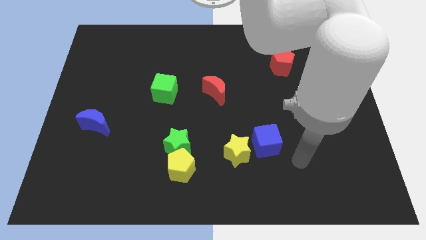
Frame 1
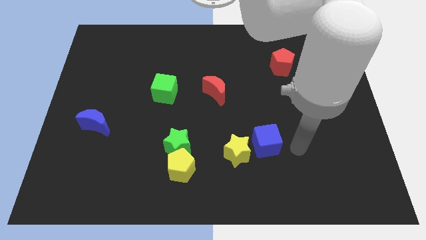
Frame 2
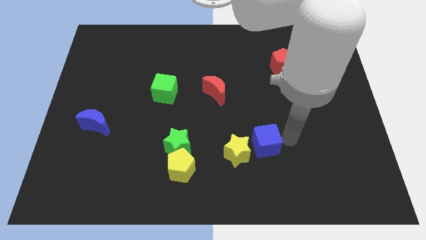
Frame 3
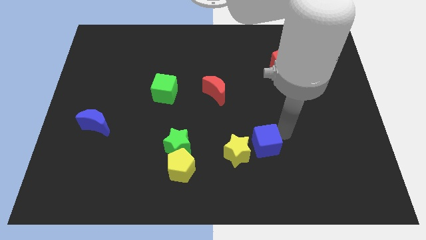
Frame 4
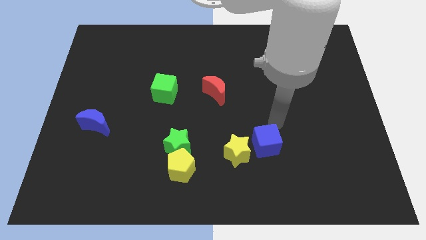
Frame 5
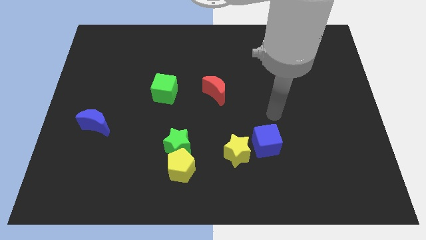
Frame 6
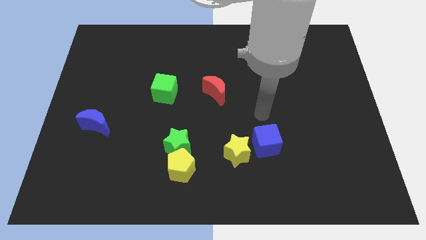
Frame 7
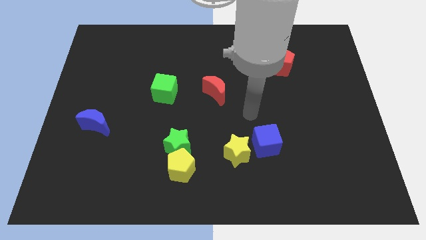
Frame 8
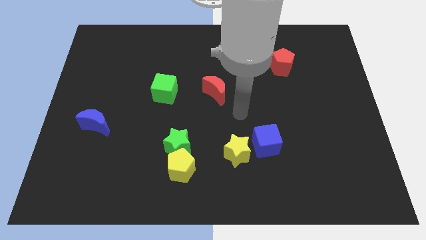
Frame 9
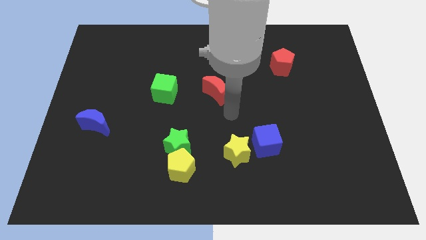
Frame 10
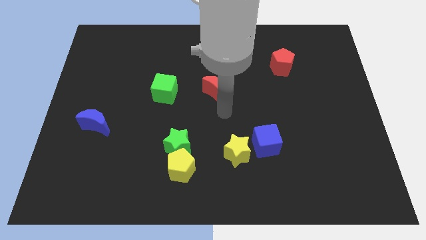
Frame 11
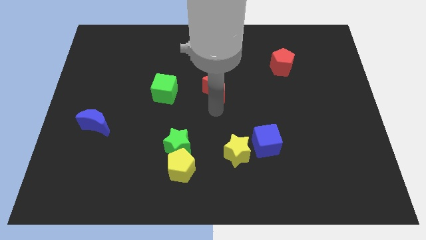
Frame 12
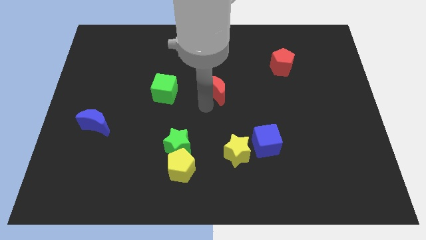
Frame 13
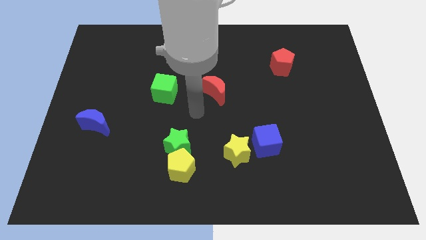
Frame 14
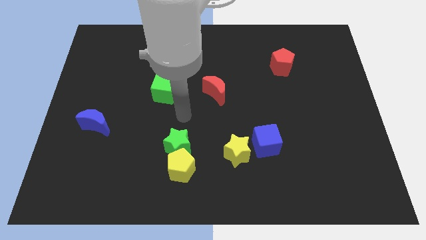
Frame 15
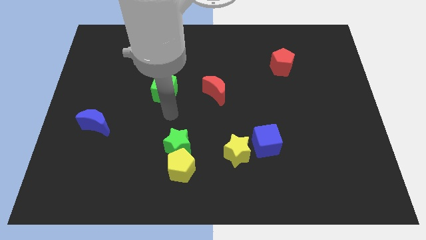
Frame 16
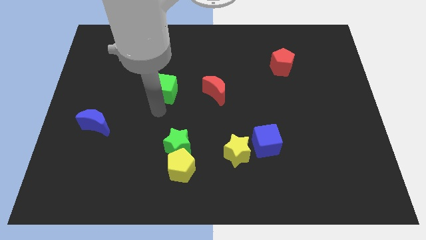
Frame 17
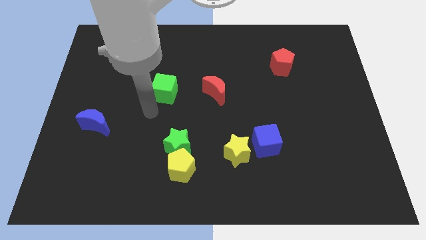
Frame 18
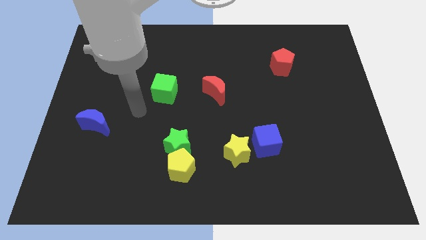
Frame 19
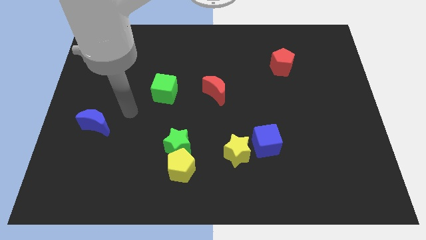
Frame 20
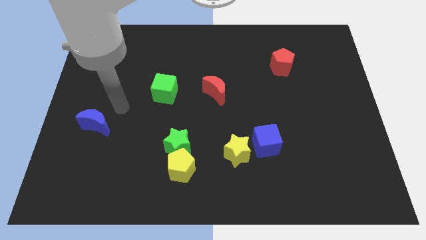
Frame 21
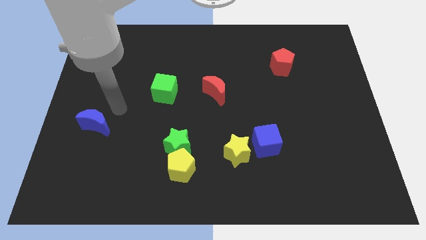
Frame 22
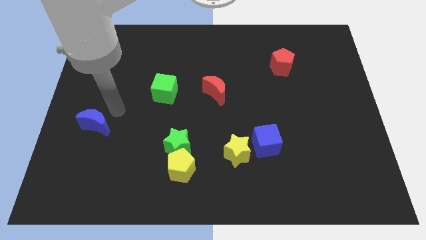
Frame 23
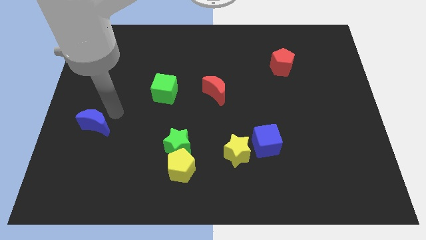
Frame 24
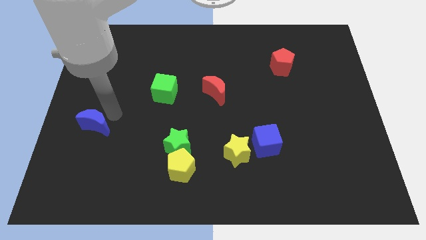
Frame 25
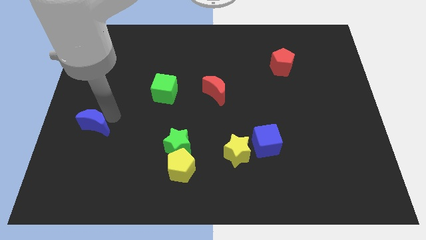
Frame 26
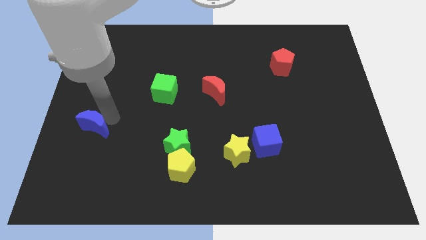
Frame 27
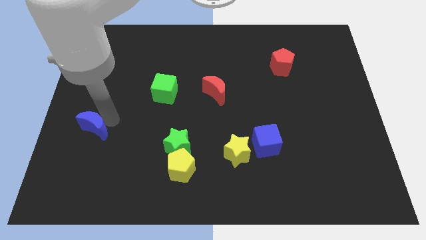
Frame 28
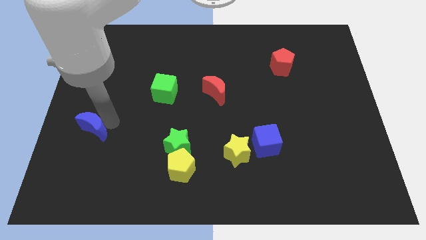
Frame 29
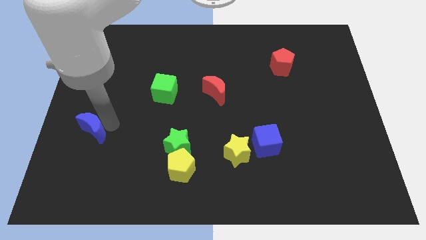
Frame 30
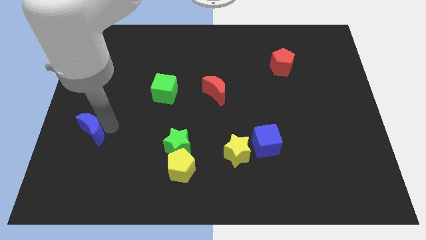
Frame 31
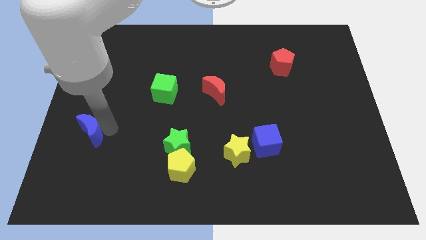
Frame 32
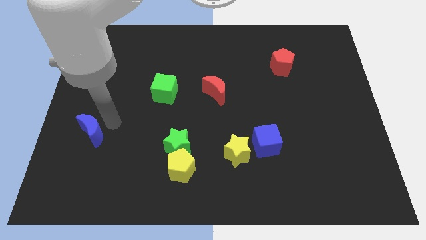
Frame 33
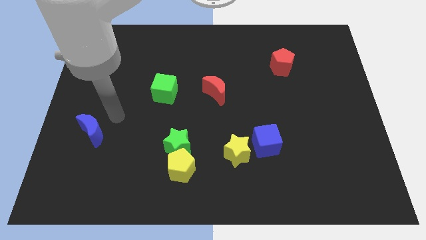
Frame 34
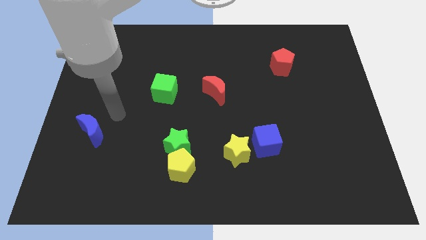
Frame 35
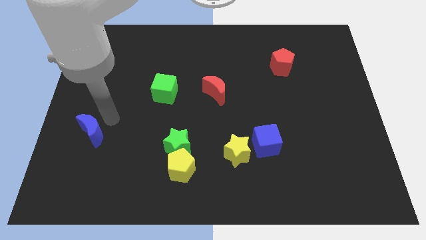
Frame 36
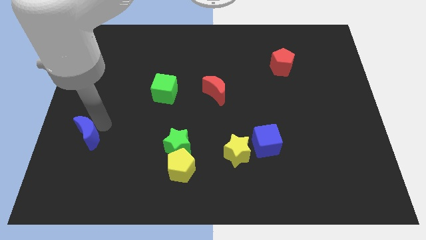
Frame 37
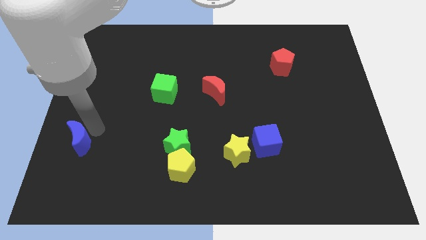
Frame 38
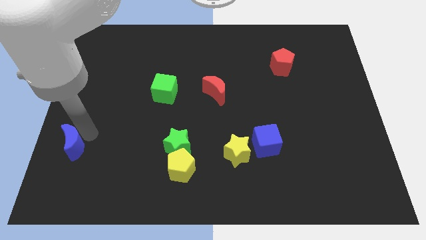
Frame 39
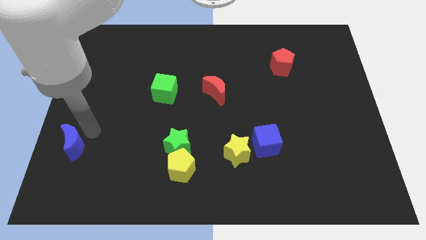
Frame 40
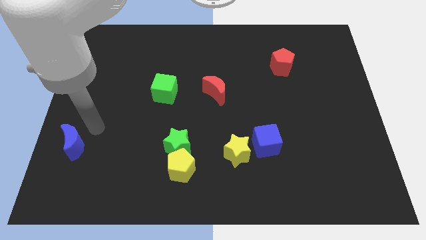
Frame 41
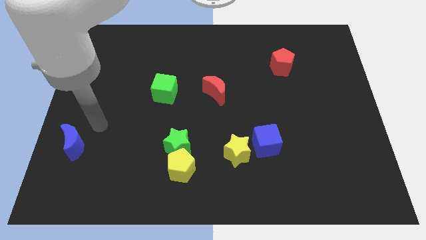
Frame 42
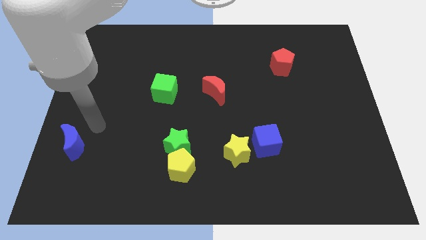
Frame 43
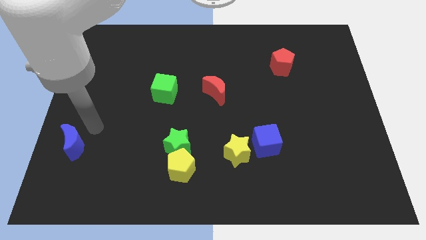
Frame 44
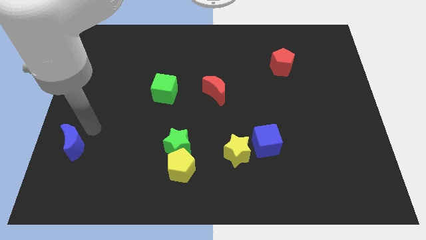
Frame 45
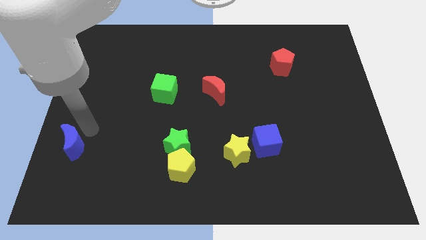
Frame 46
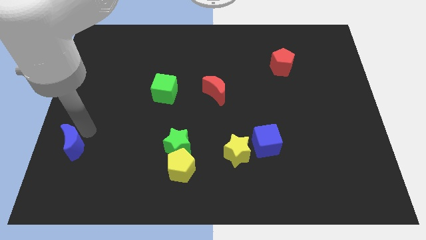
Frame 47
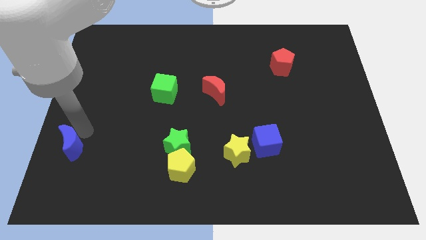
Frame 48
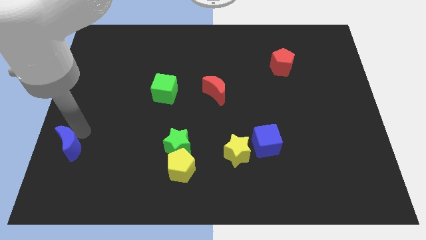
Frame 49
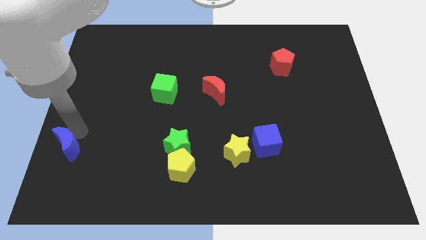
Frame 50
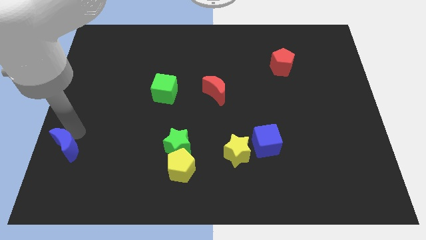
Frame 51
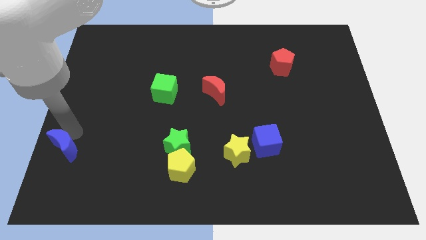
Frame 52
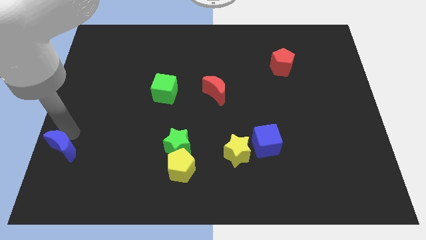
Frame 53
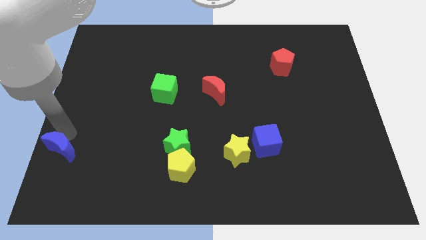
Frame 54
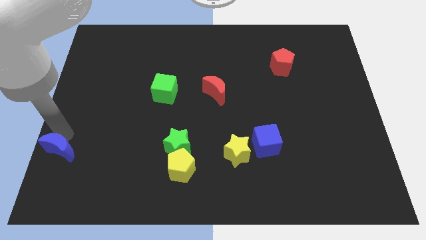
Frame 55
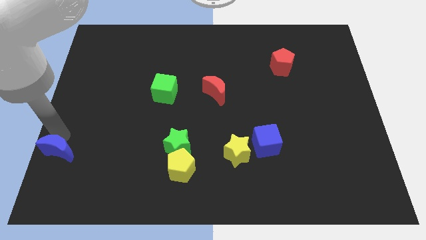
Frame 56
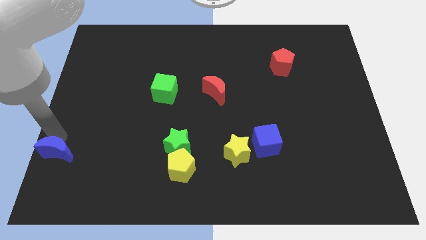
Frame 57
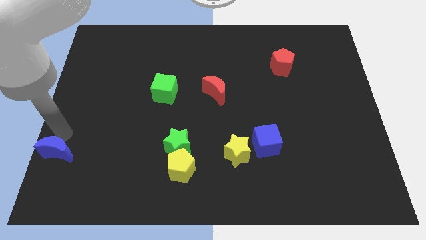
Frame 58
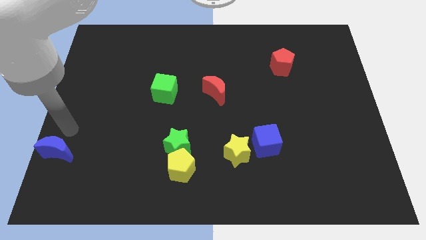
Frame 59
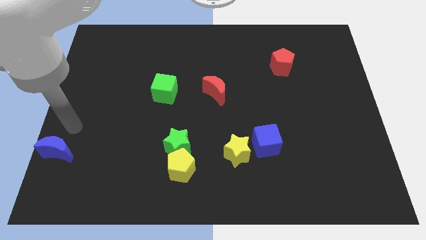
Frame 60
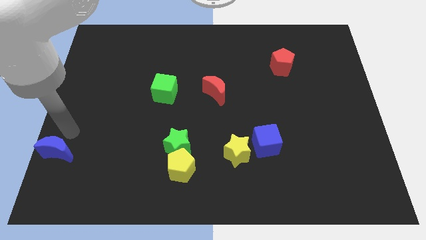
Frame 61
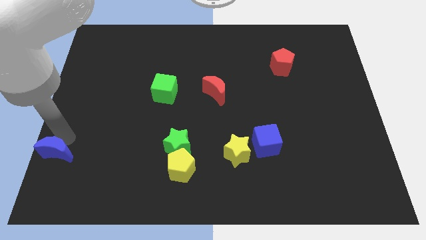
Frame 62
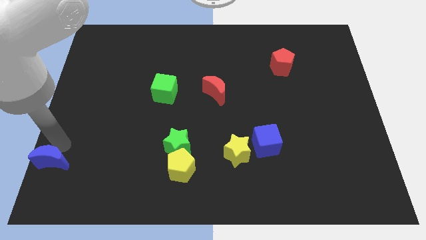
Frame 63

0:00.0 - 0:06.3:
put the blue moon to the bottom left corner
